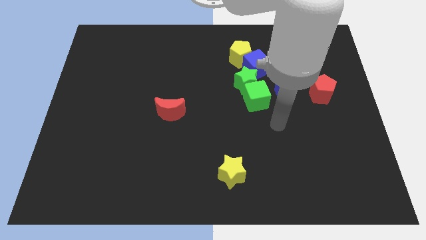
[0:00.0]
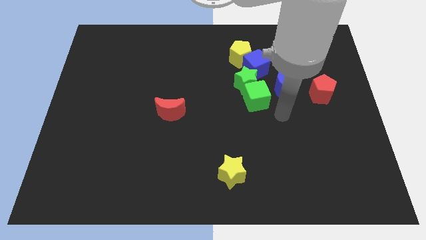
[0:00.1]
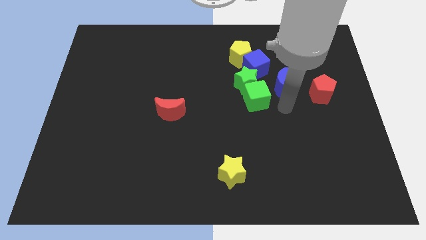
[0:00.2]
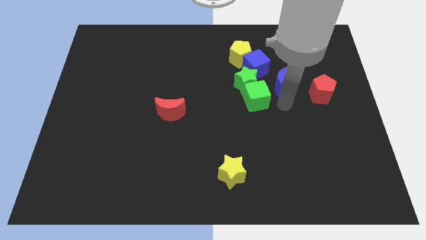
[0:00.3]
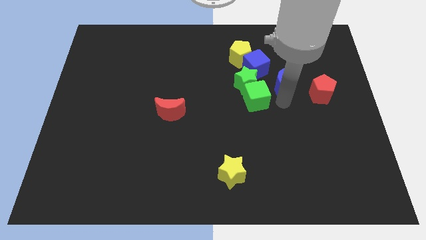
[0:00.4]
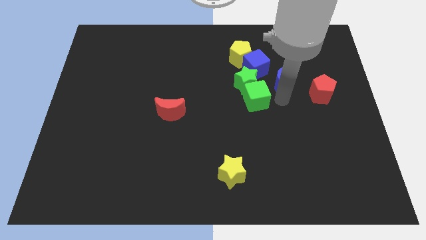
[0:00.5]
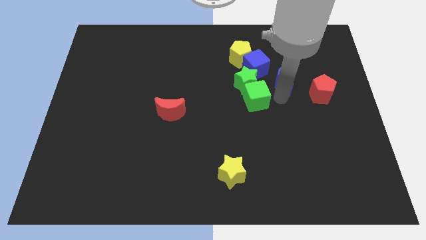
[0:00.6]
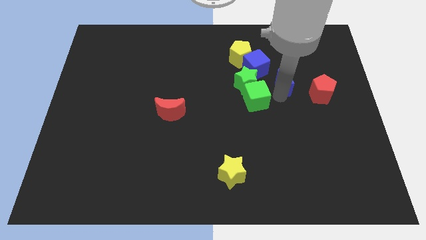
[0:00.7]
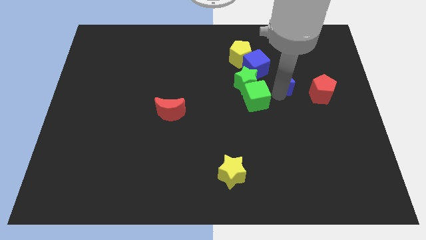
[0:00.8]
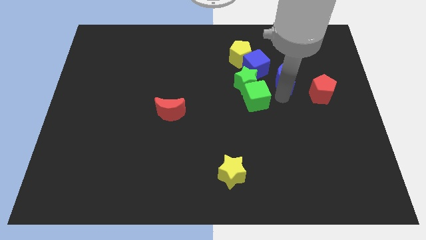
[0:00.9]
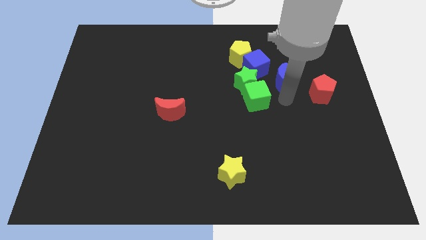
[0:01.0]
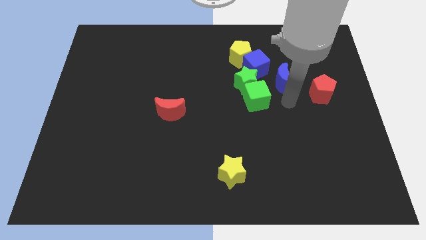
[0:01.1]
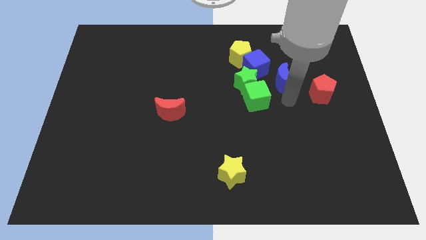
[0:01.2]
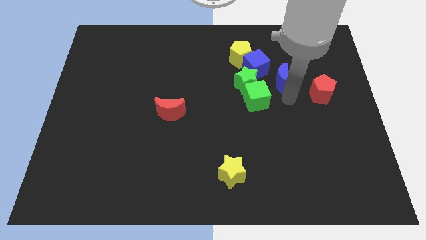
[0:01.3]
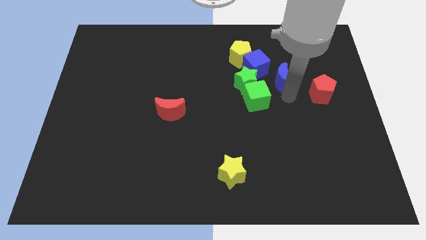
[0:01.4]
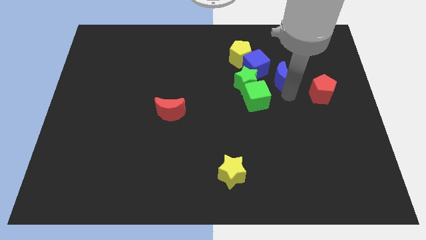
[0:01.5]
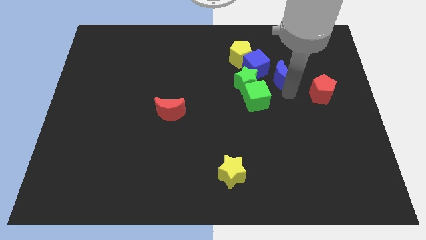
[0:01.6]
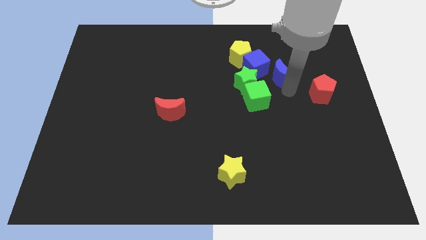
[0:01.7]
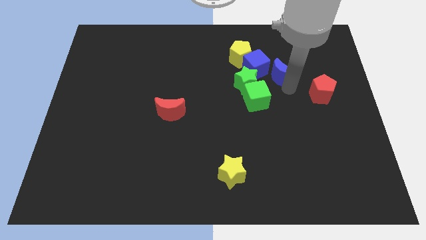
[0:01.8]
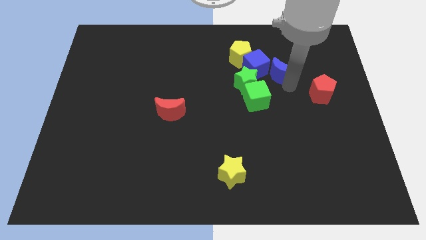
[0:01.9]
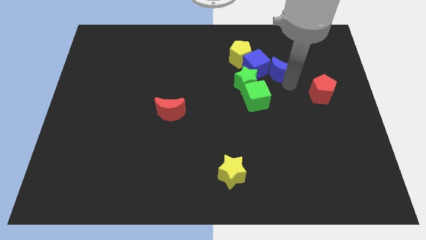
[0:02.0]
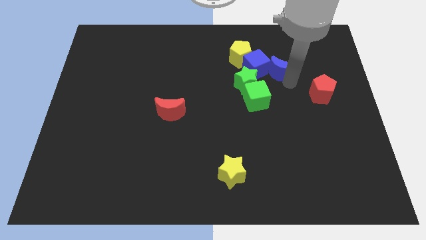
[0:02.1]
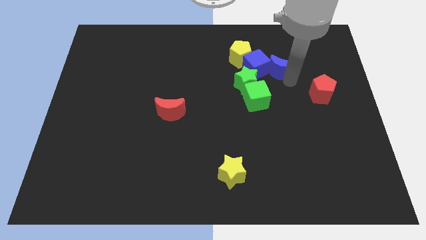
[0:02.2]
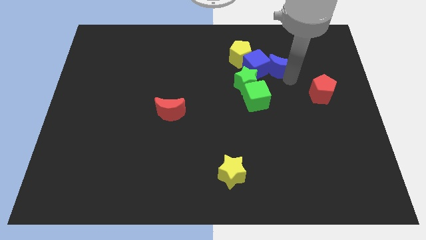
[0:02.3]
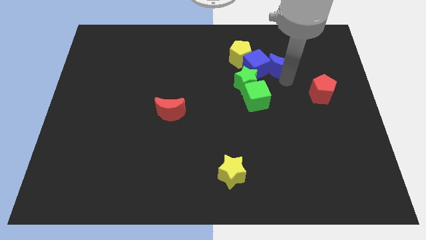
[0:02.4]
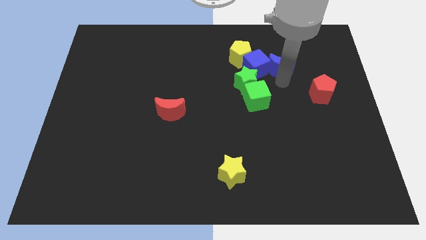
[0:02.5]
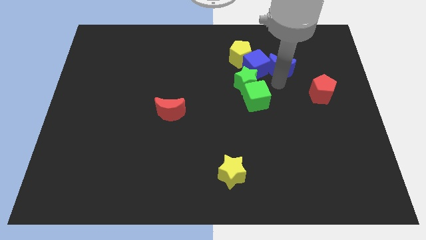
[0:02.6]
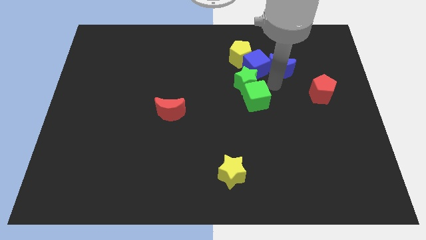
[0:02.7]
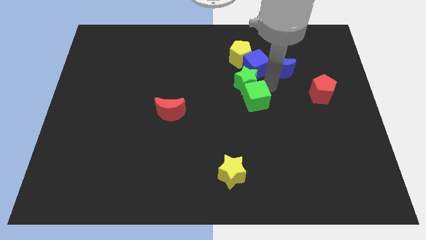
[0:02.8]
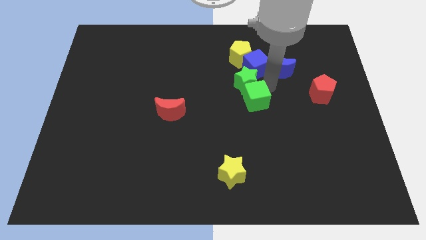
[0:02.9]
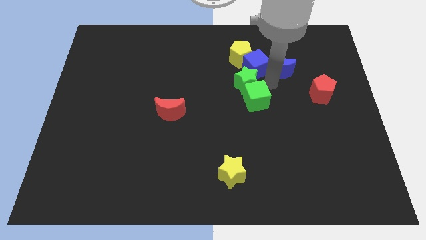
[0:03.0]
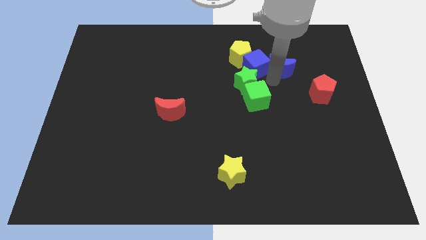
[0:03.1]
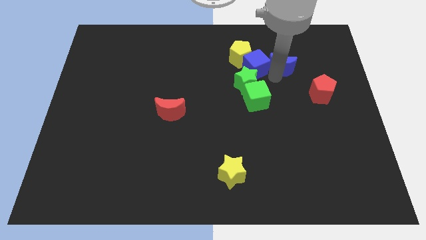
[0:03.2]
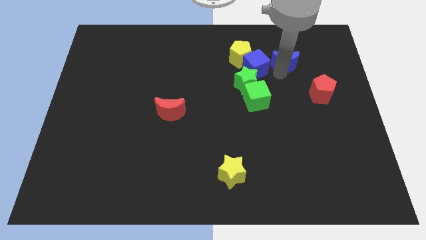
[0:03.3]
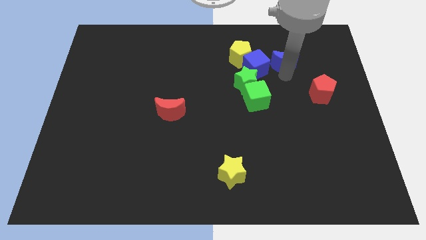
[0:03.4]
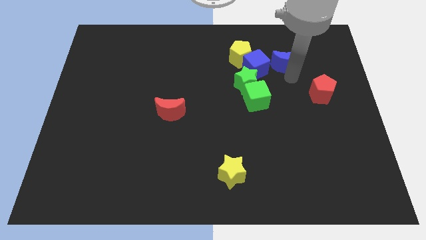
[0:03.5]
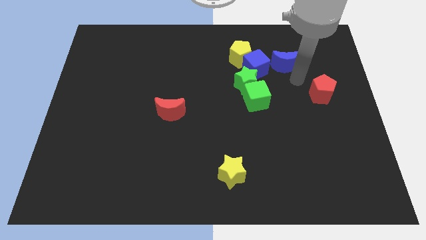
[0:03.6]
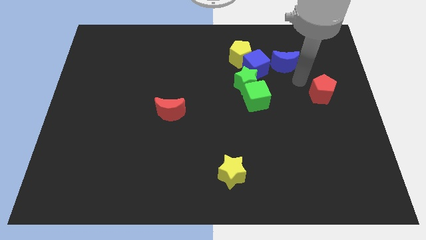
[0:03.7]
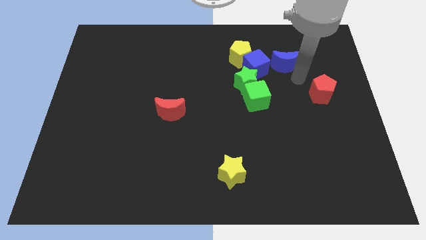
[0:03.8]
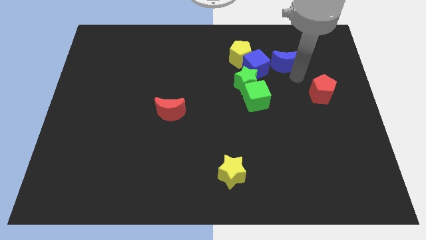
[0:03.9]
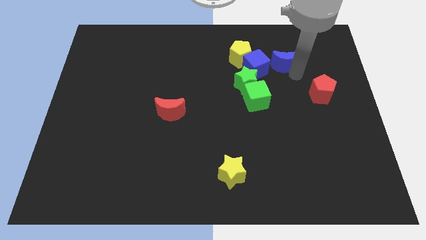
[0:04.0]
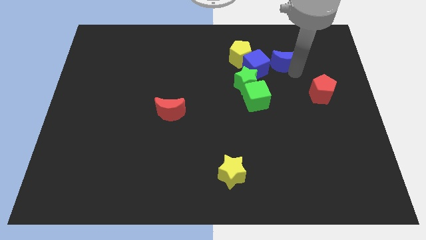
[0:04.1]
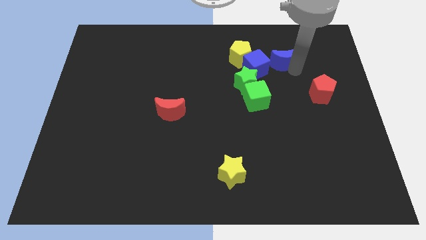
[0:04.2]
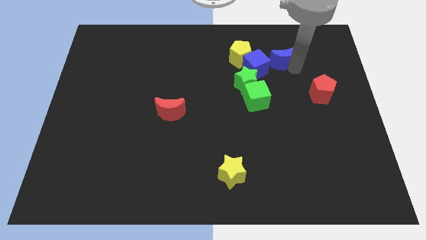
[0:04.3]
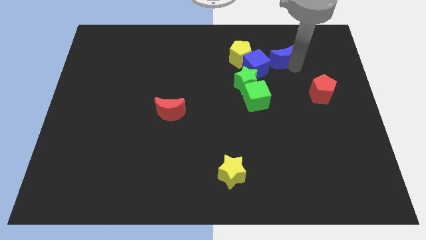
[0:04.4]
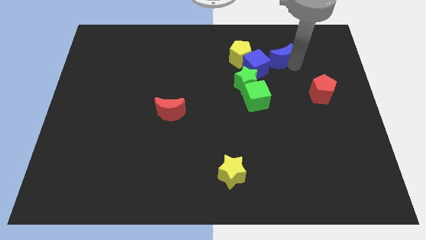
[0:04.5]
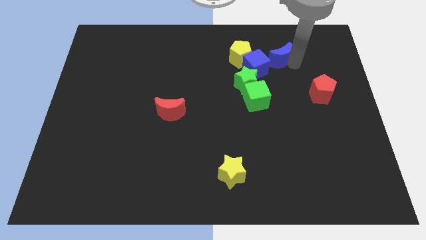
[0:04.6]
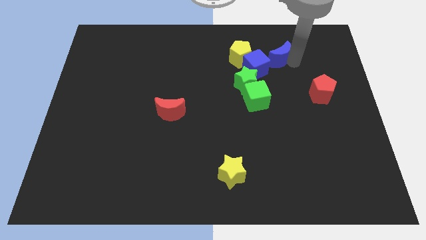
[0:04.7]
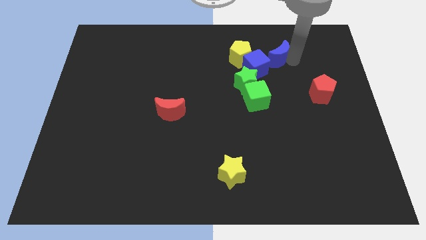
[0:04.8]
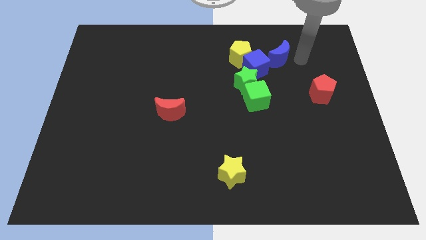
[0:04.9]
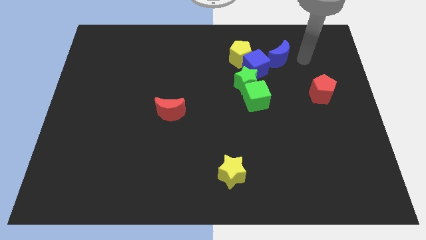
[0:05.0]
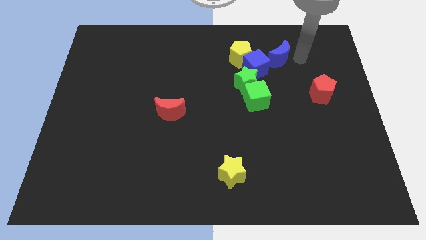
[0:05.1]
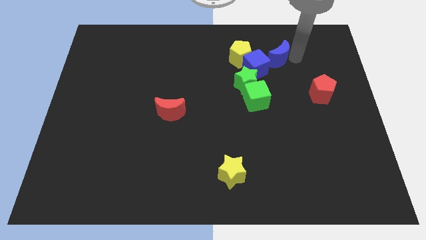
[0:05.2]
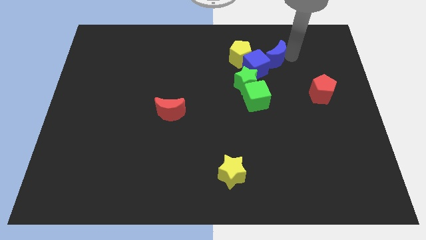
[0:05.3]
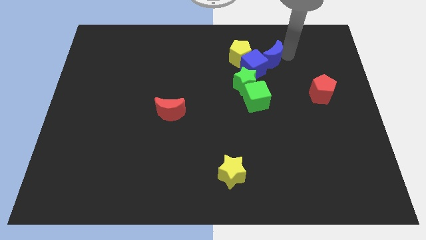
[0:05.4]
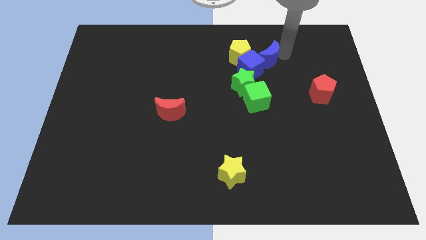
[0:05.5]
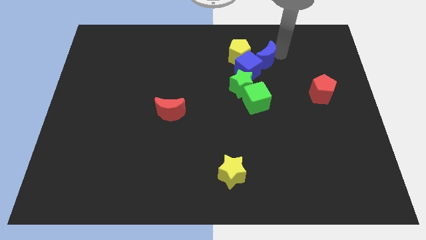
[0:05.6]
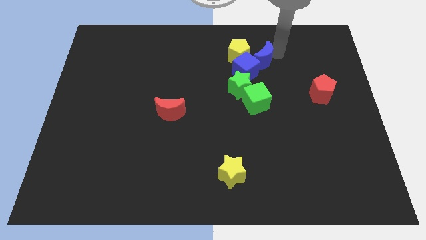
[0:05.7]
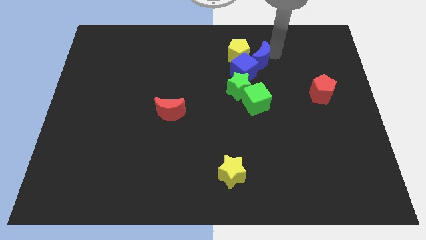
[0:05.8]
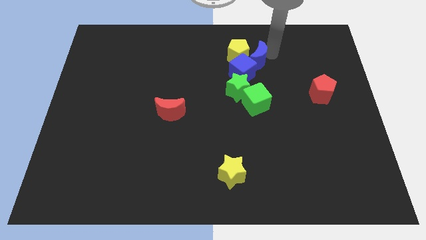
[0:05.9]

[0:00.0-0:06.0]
slide the blue moon next to the yellow pentagon

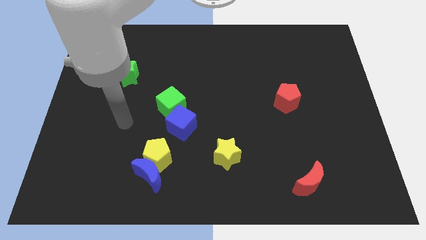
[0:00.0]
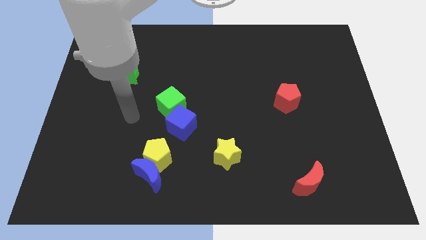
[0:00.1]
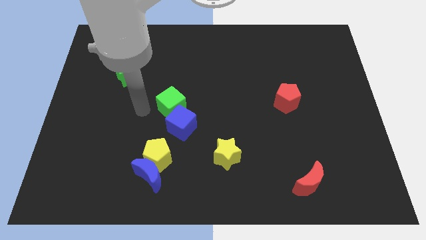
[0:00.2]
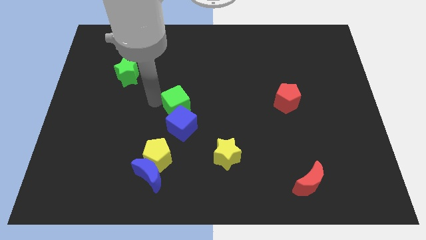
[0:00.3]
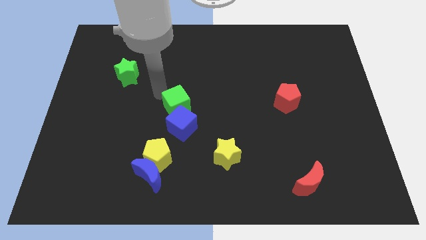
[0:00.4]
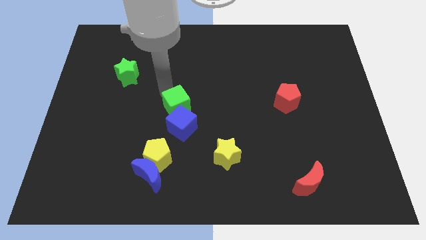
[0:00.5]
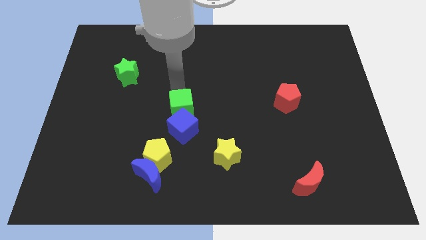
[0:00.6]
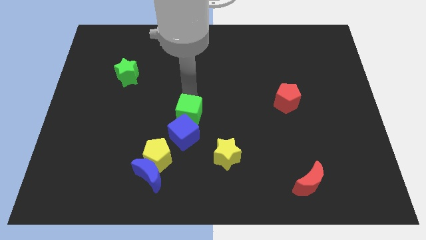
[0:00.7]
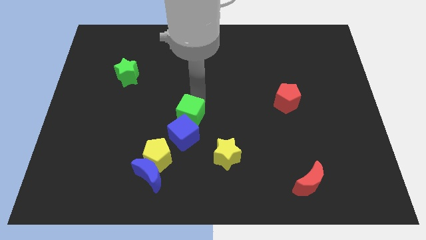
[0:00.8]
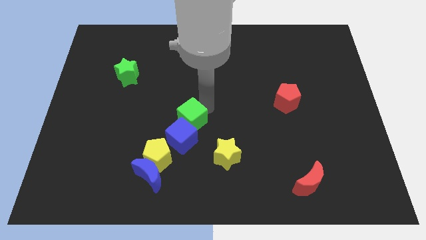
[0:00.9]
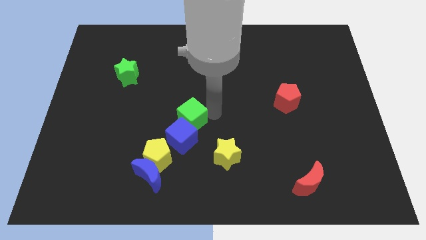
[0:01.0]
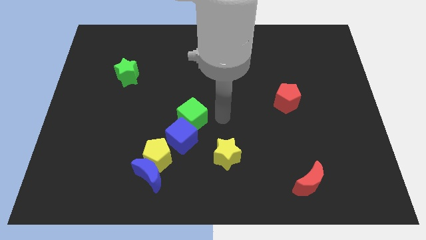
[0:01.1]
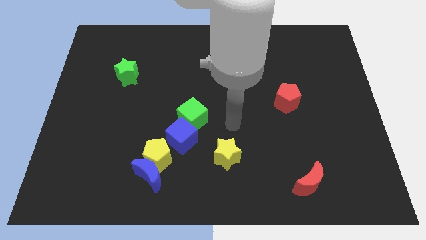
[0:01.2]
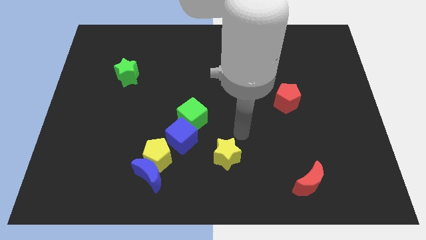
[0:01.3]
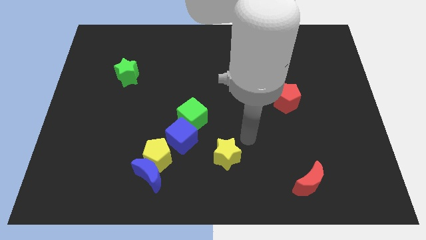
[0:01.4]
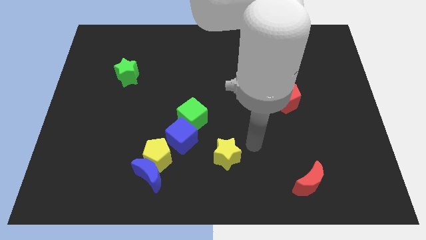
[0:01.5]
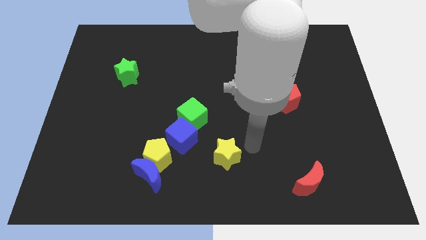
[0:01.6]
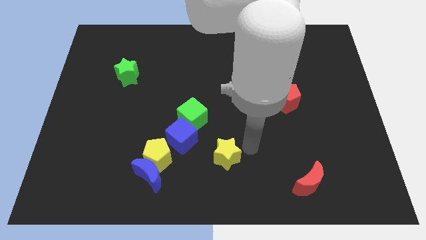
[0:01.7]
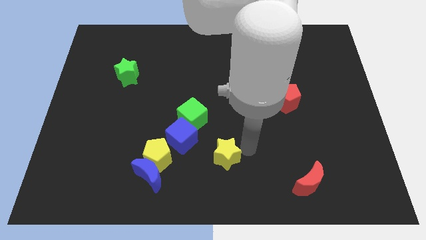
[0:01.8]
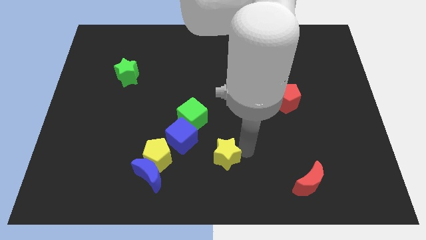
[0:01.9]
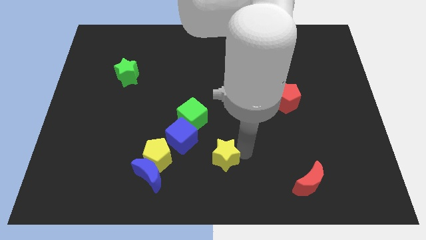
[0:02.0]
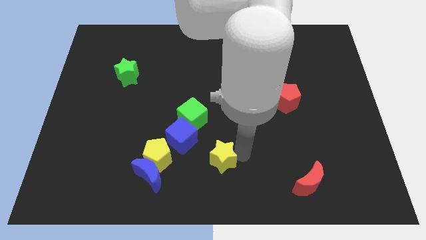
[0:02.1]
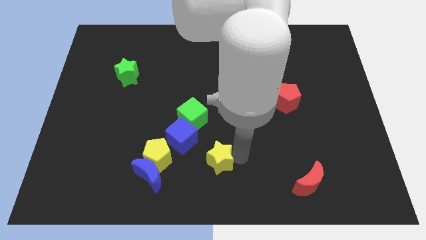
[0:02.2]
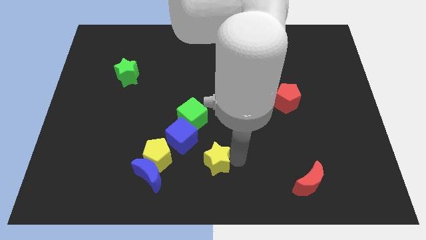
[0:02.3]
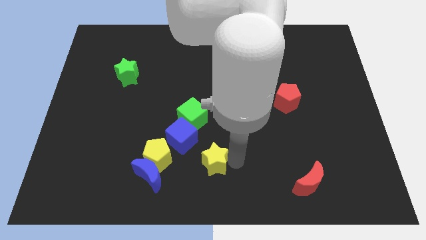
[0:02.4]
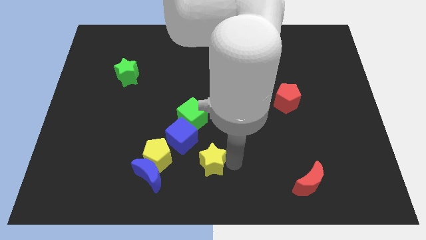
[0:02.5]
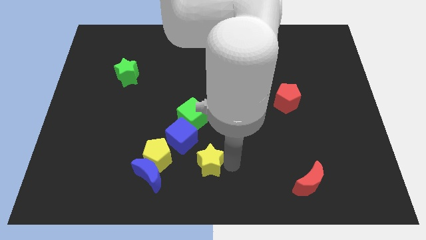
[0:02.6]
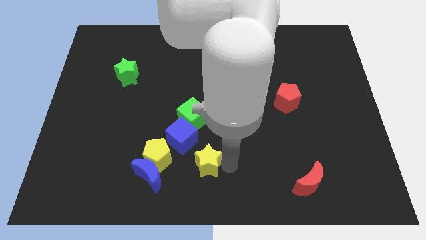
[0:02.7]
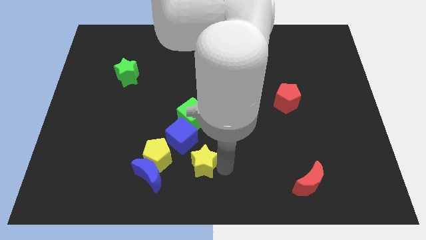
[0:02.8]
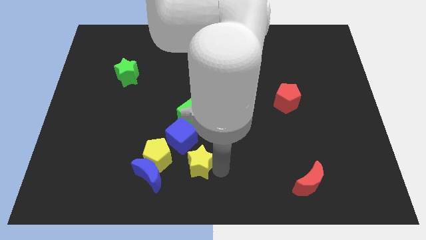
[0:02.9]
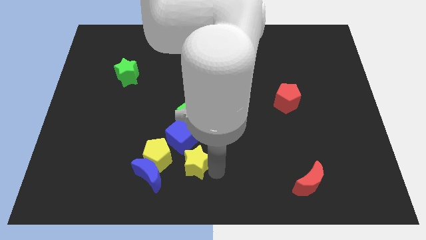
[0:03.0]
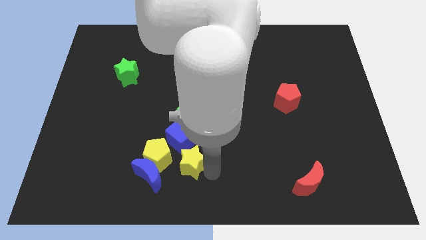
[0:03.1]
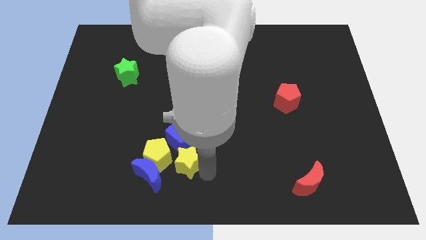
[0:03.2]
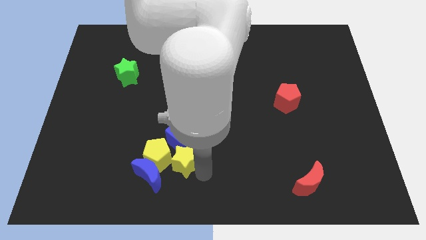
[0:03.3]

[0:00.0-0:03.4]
push the yellow star to the yellow pentagon
